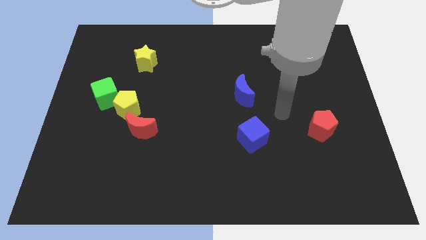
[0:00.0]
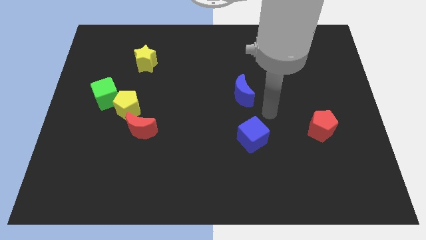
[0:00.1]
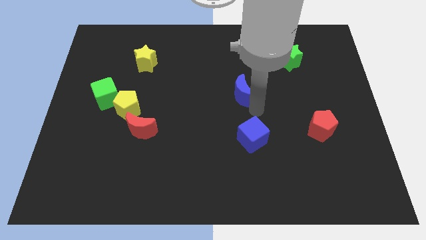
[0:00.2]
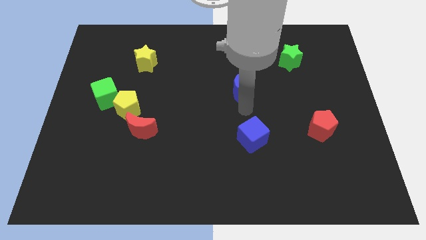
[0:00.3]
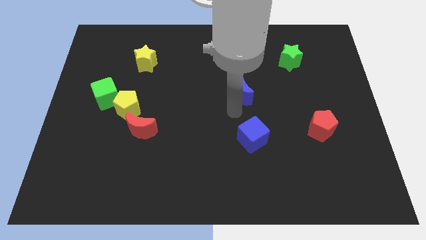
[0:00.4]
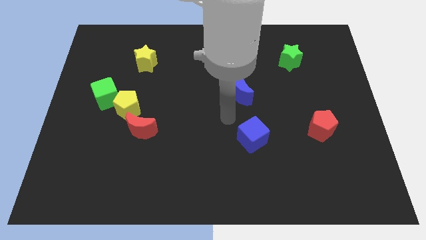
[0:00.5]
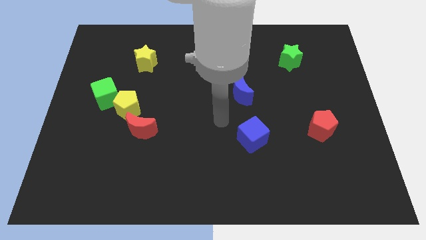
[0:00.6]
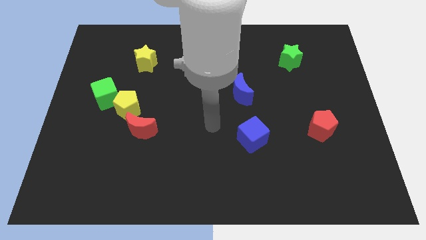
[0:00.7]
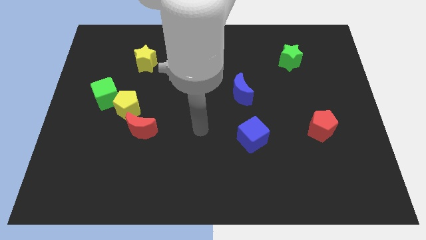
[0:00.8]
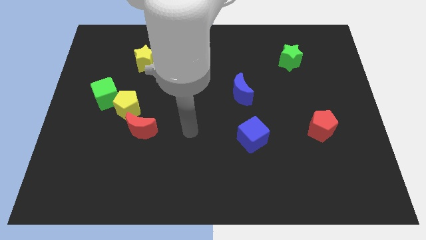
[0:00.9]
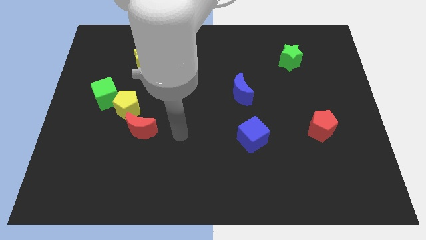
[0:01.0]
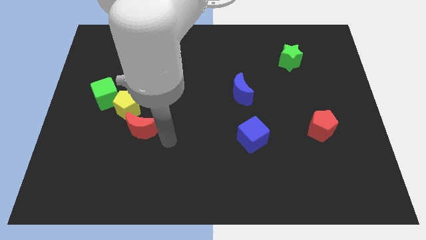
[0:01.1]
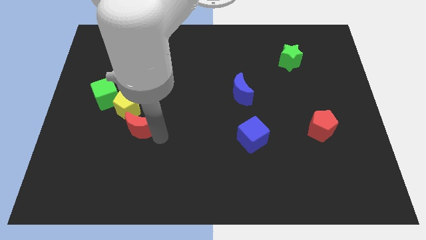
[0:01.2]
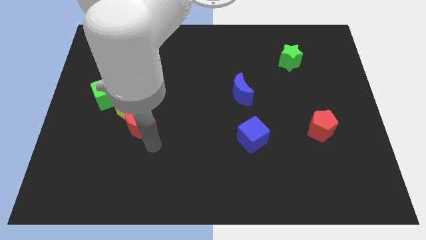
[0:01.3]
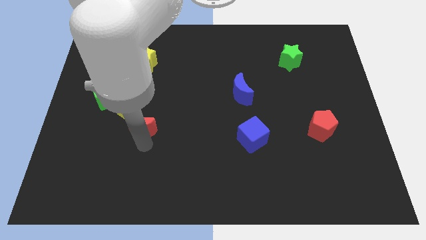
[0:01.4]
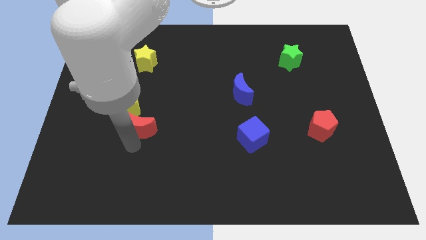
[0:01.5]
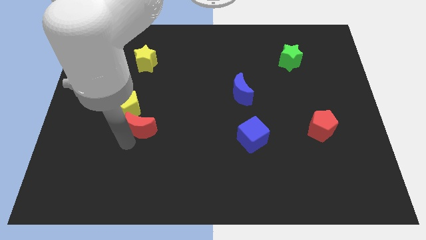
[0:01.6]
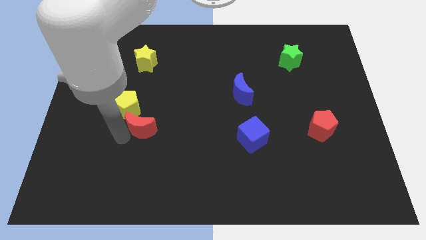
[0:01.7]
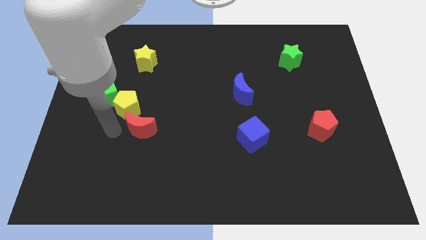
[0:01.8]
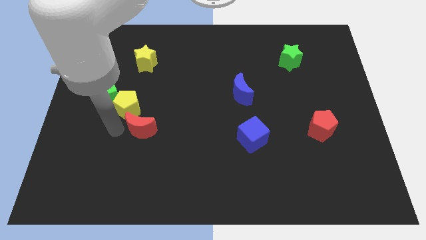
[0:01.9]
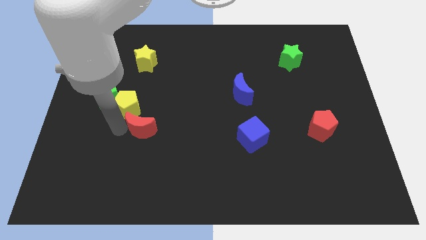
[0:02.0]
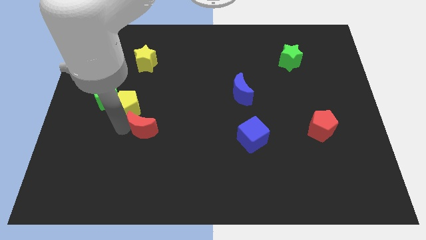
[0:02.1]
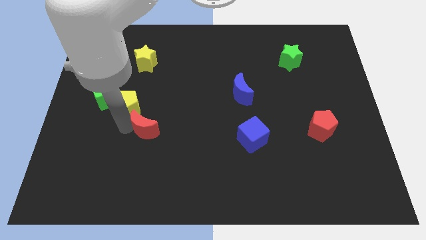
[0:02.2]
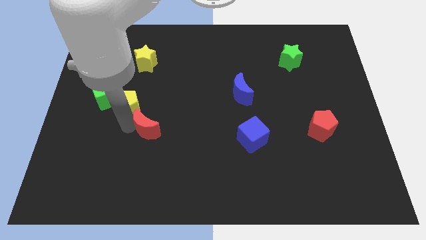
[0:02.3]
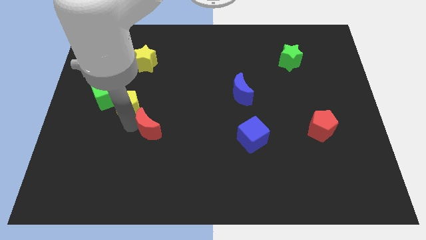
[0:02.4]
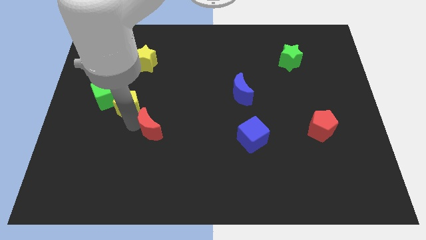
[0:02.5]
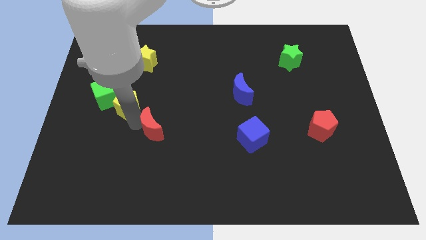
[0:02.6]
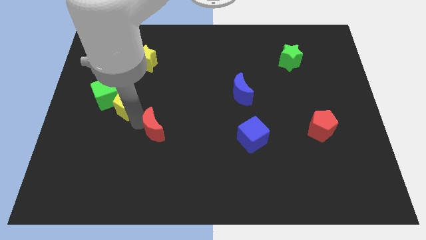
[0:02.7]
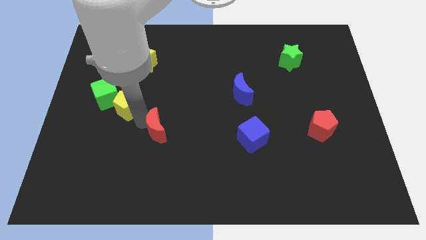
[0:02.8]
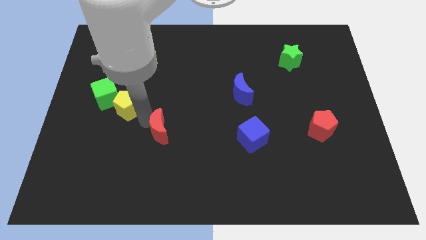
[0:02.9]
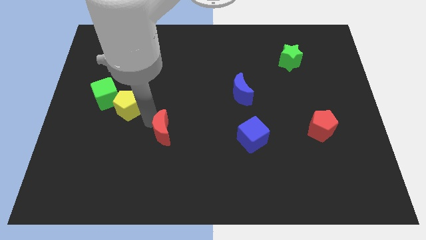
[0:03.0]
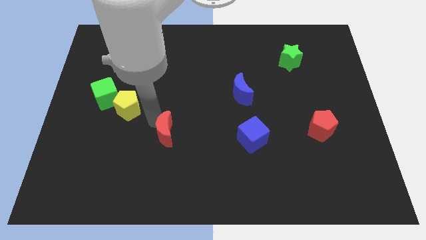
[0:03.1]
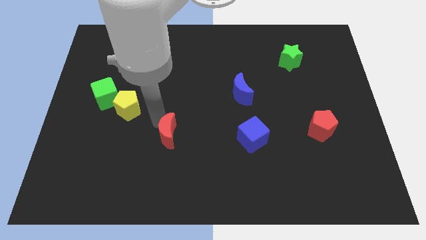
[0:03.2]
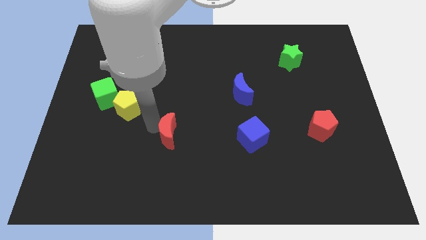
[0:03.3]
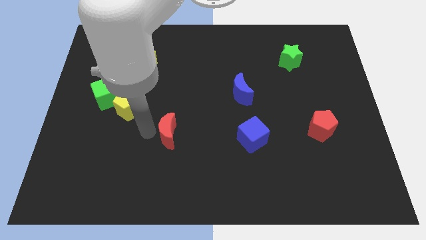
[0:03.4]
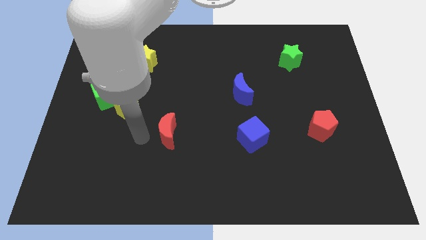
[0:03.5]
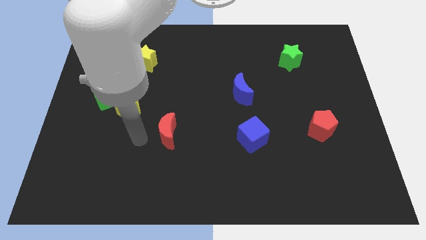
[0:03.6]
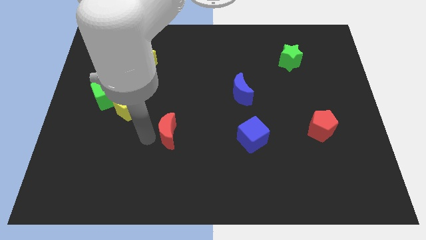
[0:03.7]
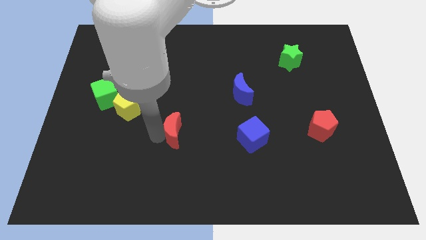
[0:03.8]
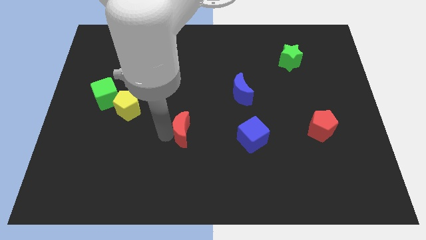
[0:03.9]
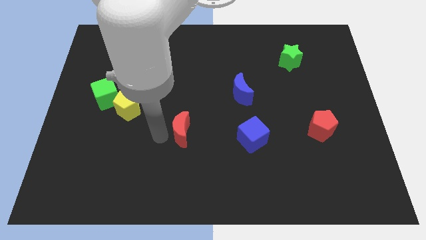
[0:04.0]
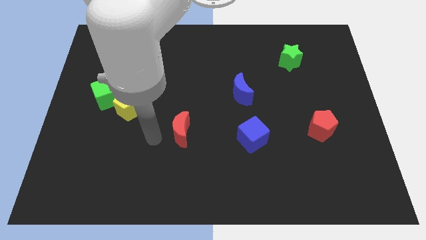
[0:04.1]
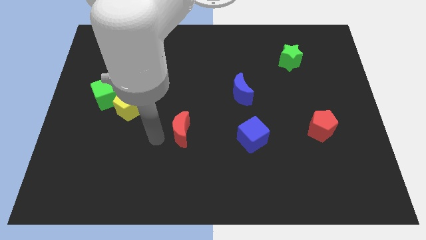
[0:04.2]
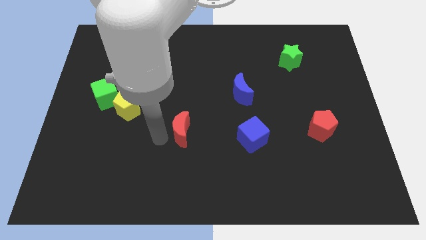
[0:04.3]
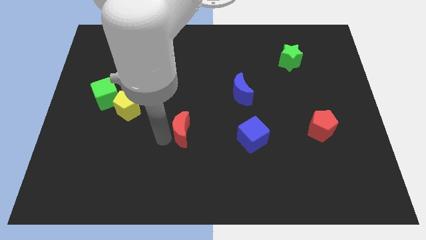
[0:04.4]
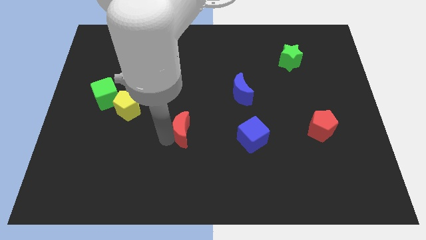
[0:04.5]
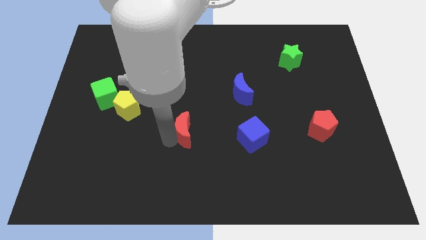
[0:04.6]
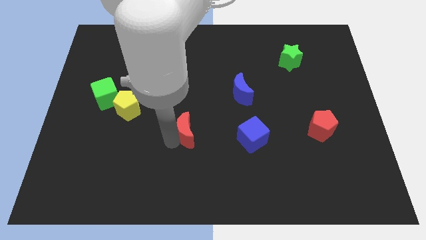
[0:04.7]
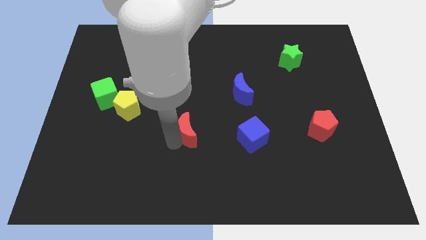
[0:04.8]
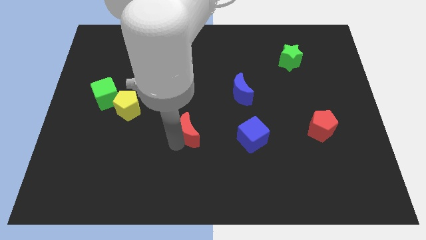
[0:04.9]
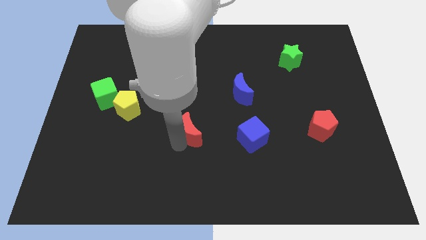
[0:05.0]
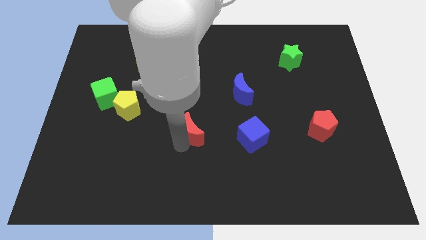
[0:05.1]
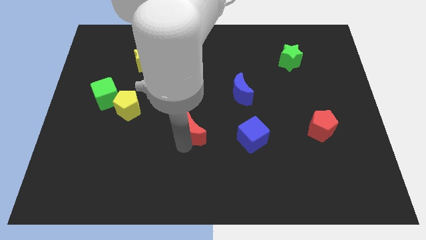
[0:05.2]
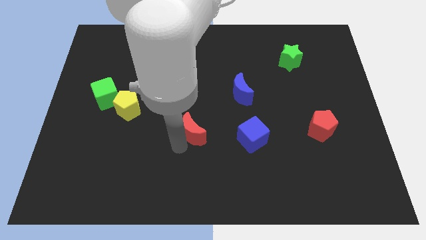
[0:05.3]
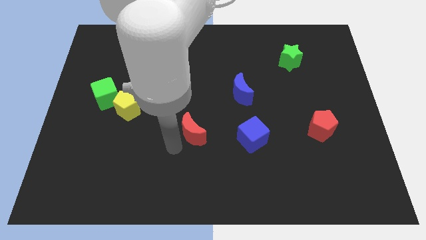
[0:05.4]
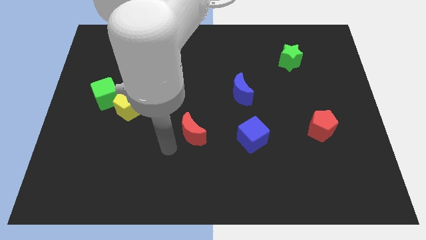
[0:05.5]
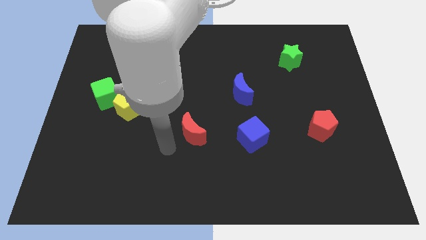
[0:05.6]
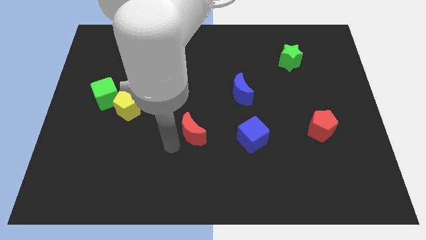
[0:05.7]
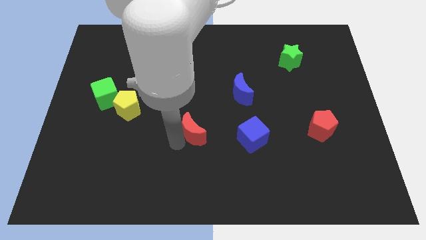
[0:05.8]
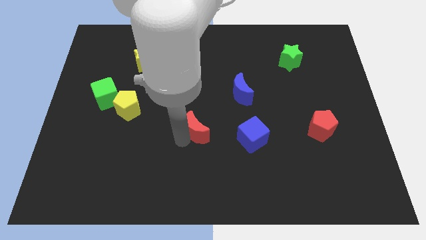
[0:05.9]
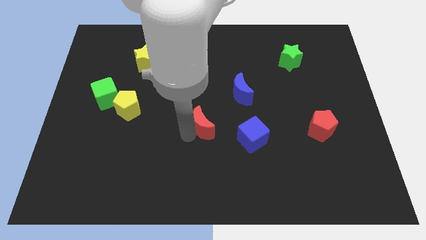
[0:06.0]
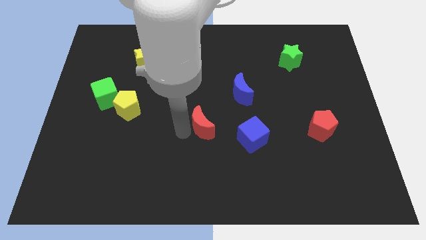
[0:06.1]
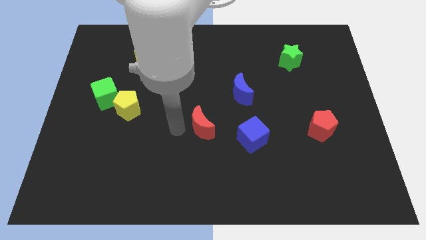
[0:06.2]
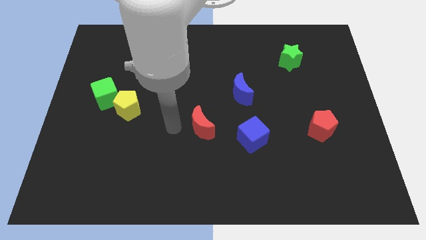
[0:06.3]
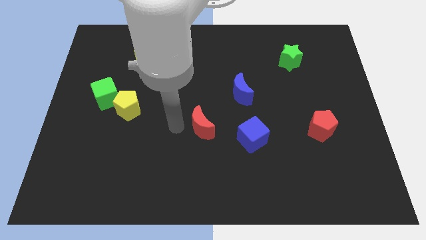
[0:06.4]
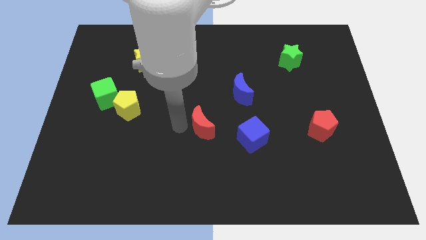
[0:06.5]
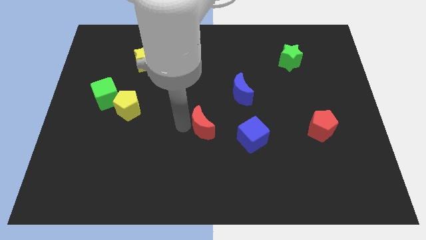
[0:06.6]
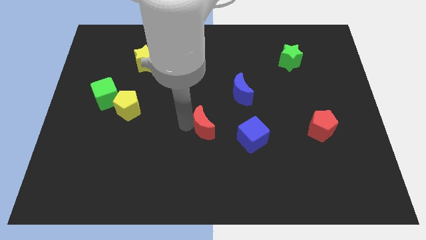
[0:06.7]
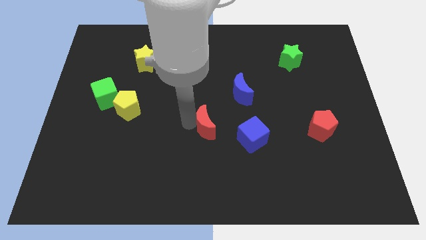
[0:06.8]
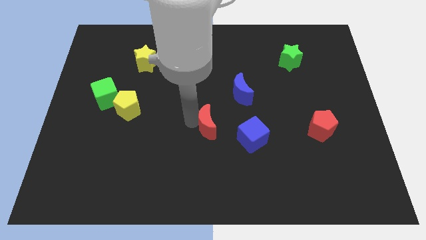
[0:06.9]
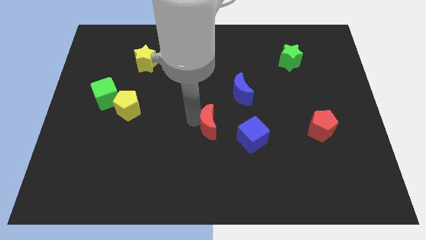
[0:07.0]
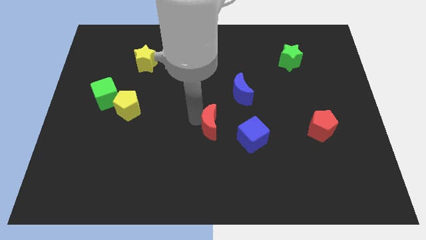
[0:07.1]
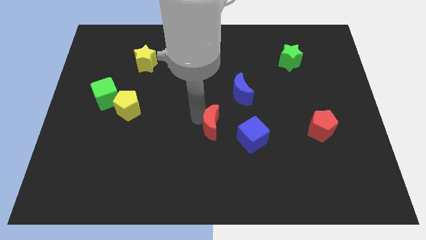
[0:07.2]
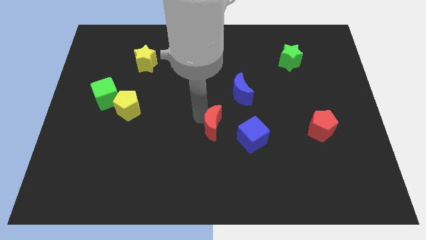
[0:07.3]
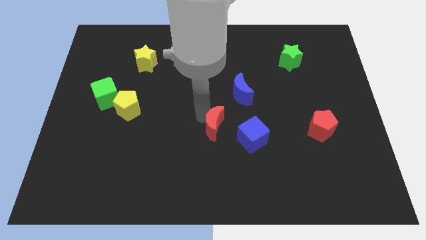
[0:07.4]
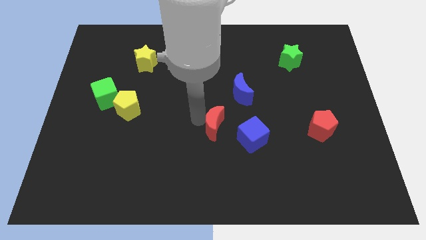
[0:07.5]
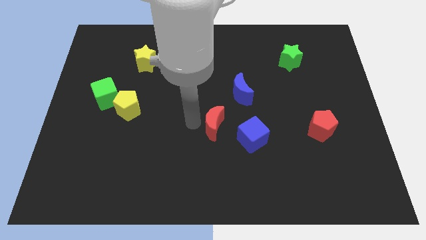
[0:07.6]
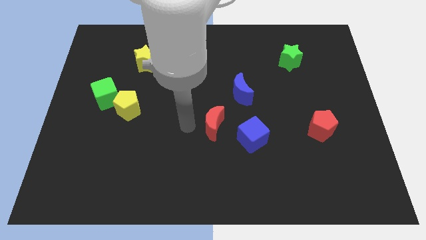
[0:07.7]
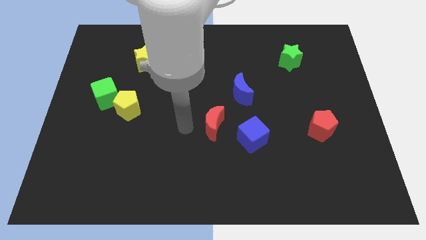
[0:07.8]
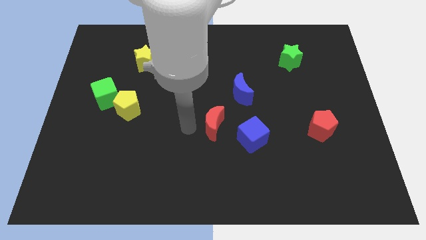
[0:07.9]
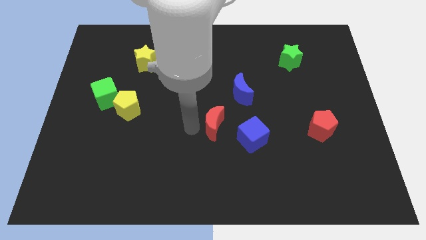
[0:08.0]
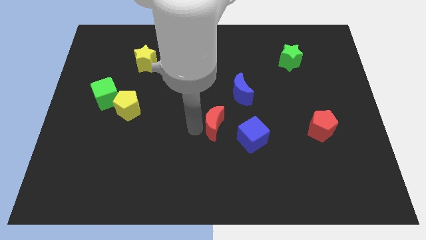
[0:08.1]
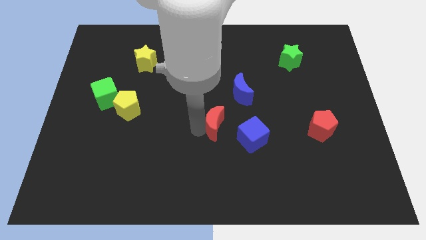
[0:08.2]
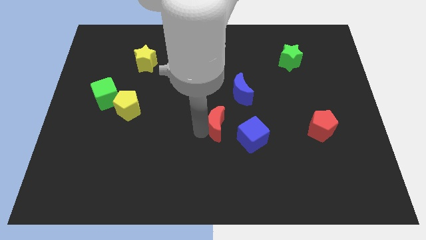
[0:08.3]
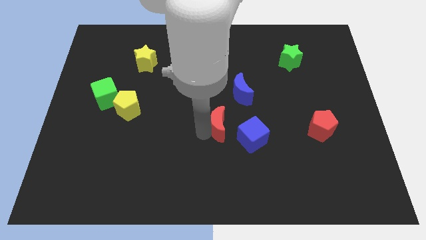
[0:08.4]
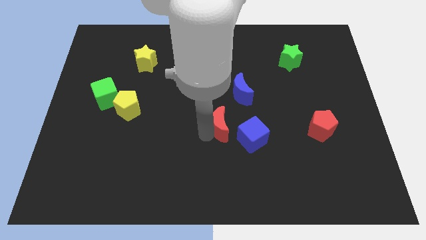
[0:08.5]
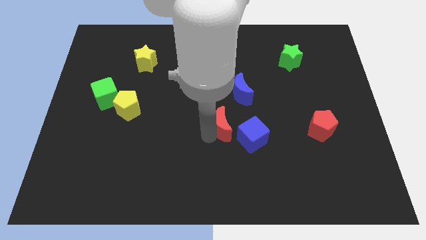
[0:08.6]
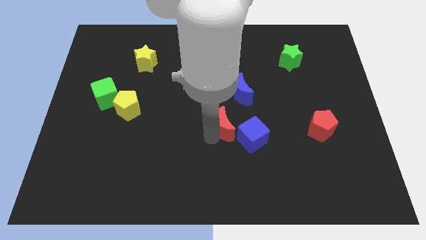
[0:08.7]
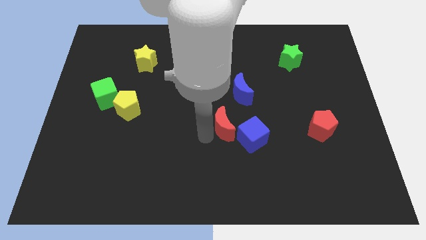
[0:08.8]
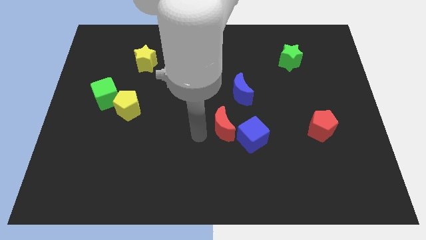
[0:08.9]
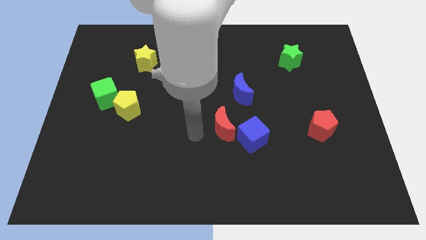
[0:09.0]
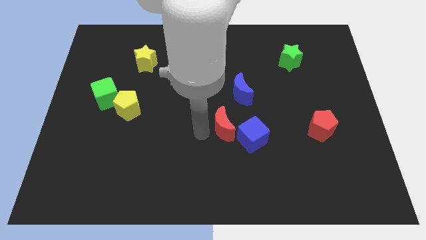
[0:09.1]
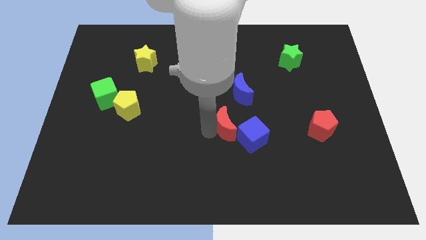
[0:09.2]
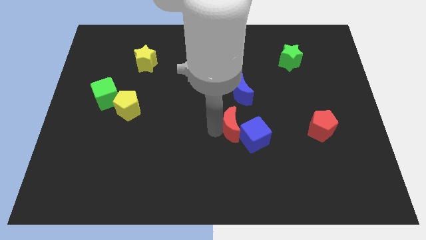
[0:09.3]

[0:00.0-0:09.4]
slide the red moon to the right
